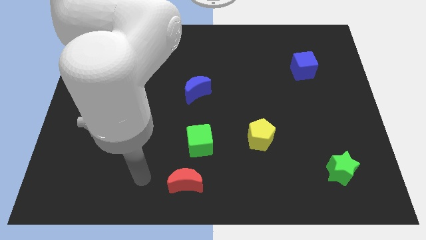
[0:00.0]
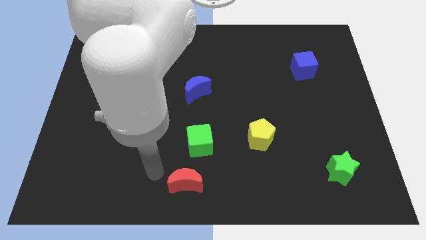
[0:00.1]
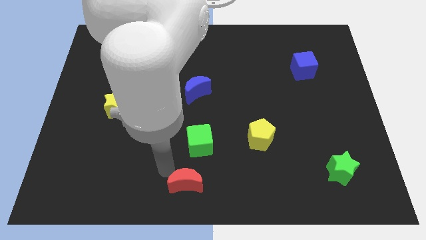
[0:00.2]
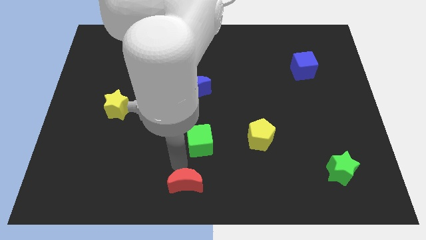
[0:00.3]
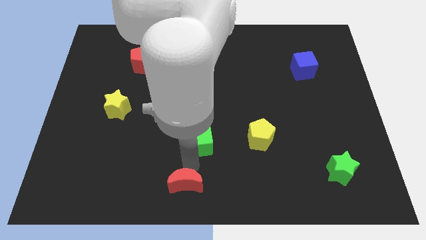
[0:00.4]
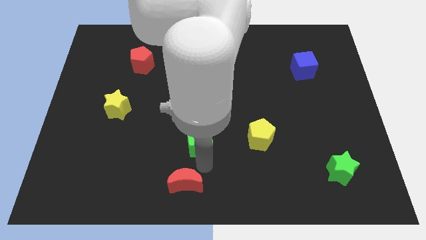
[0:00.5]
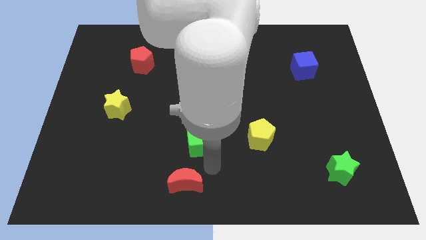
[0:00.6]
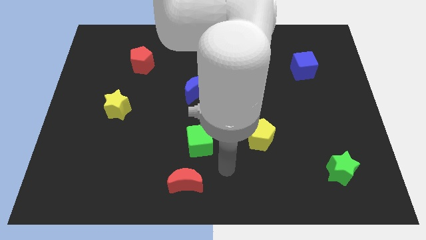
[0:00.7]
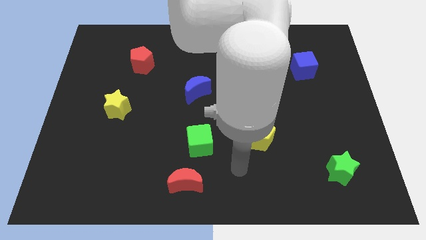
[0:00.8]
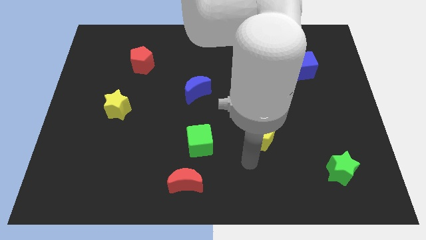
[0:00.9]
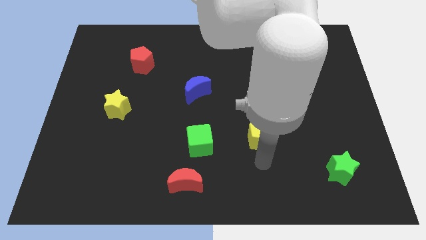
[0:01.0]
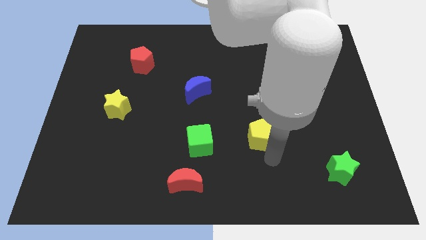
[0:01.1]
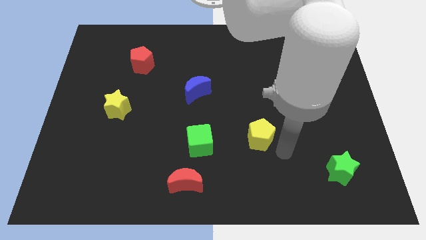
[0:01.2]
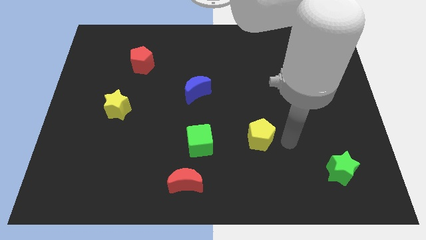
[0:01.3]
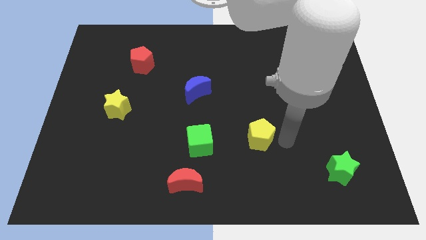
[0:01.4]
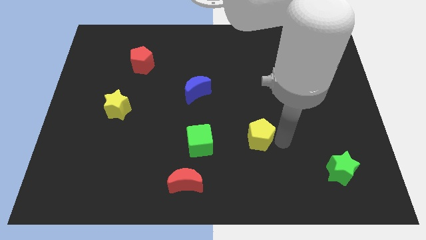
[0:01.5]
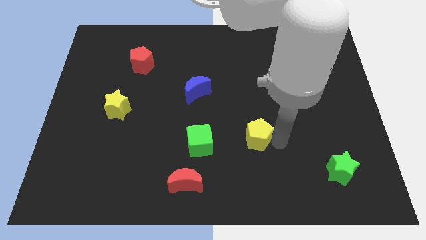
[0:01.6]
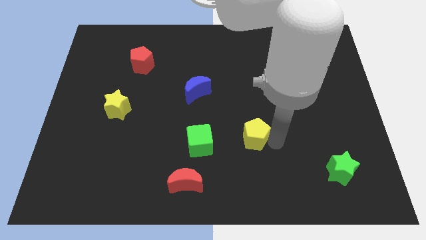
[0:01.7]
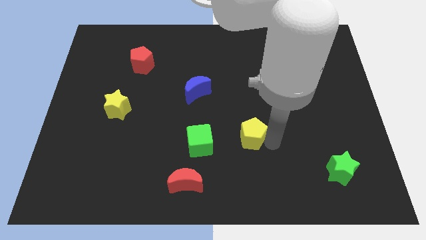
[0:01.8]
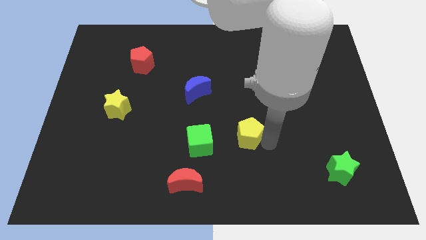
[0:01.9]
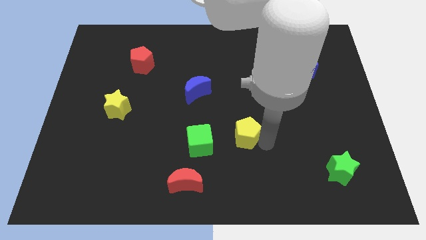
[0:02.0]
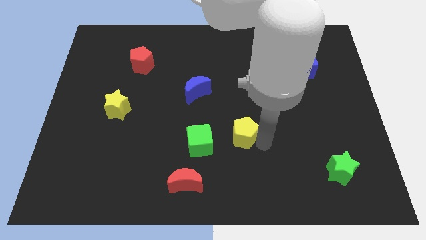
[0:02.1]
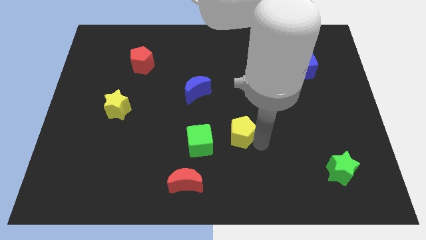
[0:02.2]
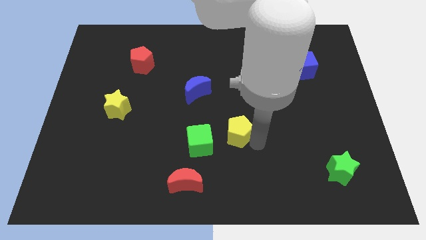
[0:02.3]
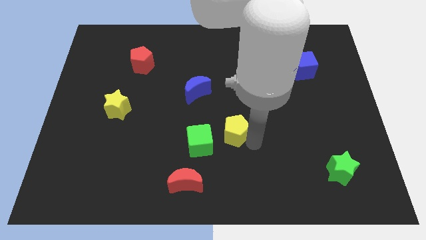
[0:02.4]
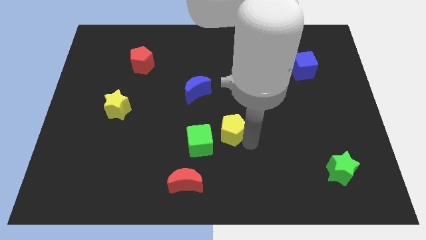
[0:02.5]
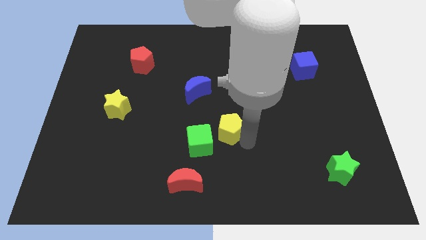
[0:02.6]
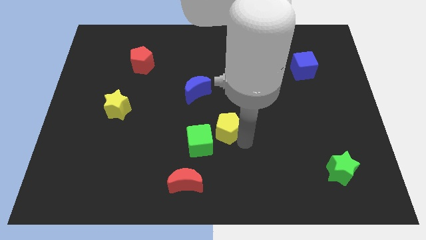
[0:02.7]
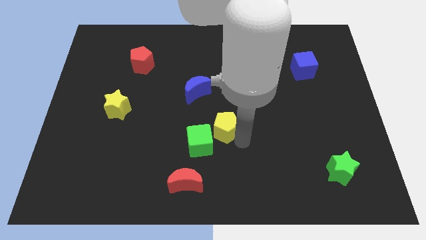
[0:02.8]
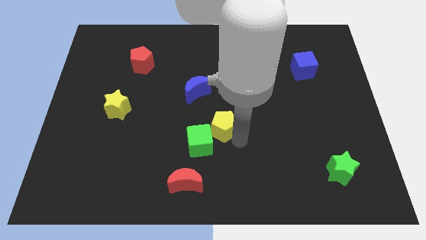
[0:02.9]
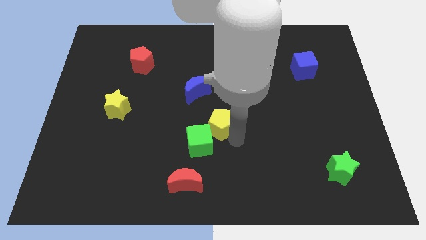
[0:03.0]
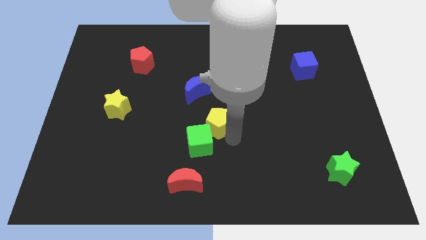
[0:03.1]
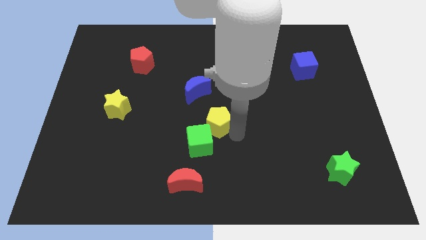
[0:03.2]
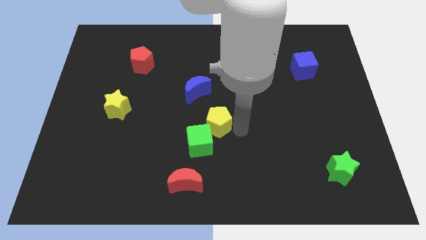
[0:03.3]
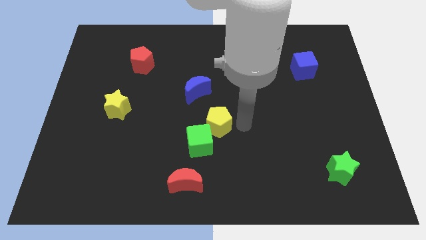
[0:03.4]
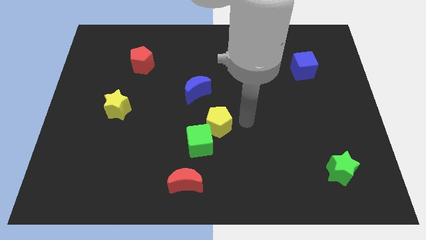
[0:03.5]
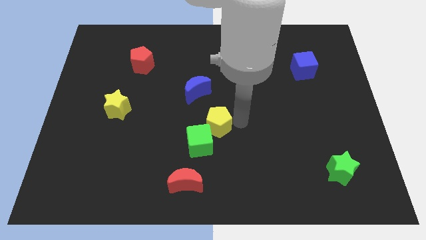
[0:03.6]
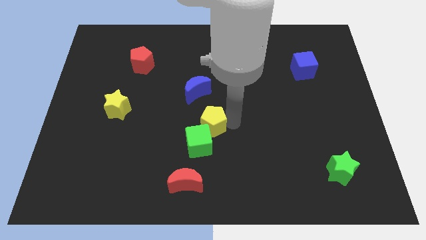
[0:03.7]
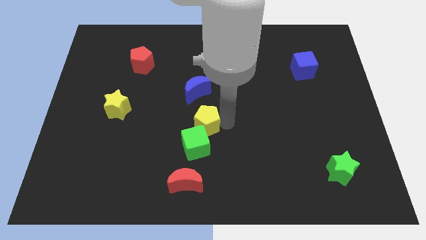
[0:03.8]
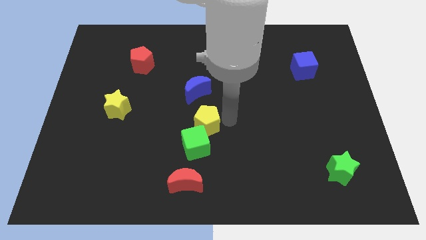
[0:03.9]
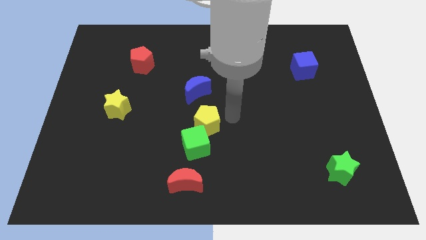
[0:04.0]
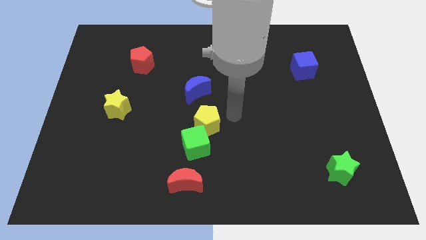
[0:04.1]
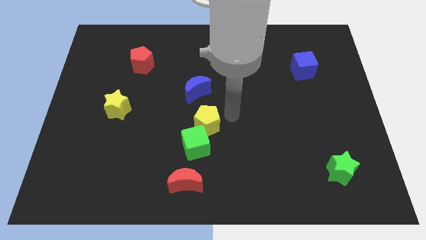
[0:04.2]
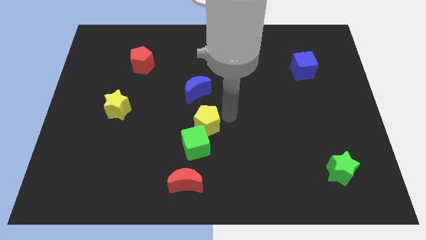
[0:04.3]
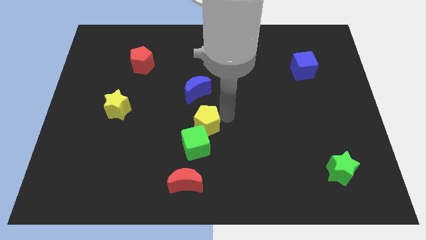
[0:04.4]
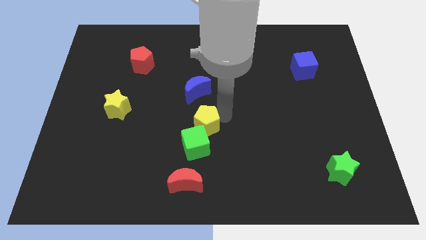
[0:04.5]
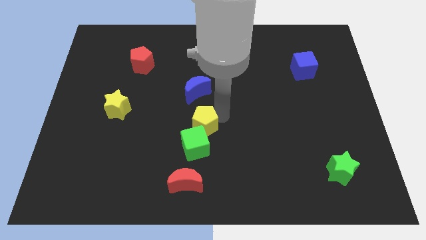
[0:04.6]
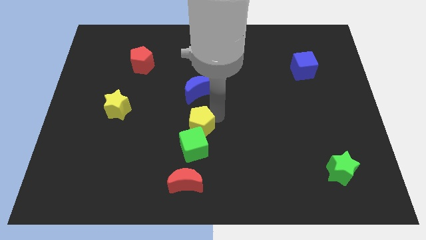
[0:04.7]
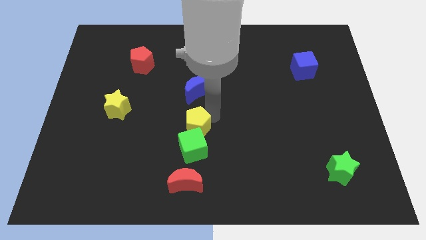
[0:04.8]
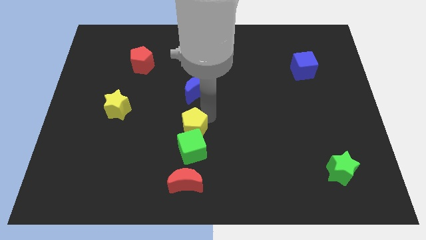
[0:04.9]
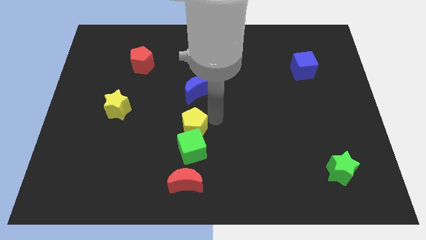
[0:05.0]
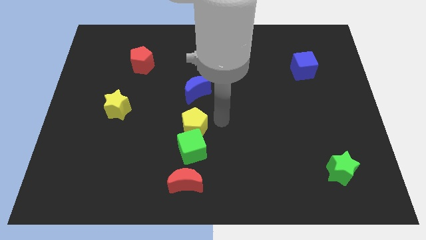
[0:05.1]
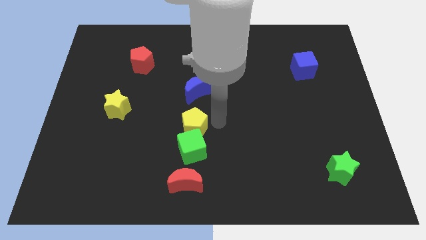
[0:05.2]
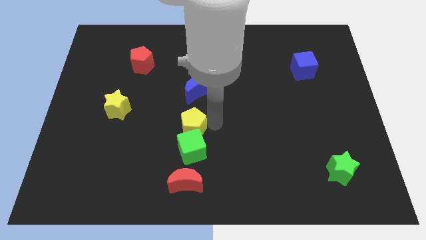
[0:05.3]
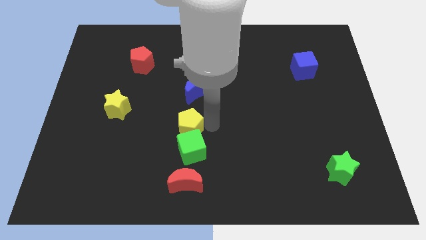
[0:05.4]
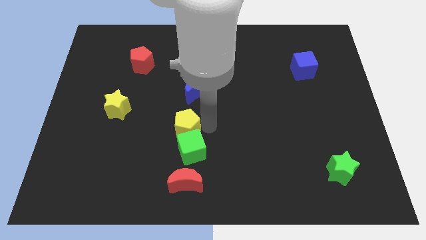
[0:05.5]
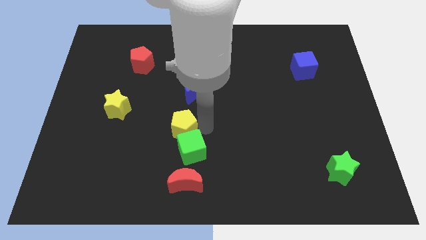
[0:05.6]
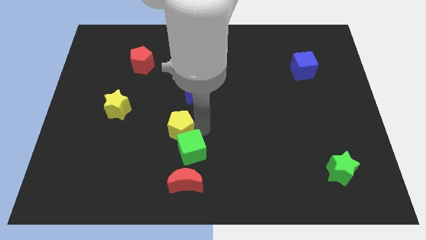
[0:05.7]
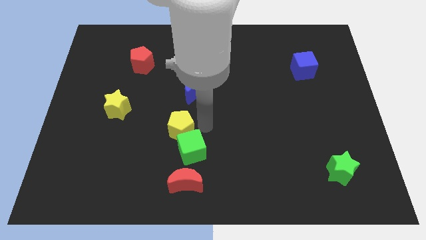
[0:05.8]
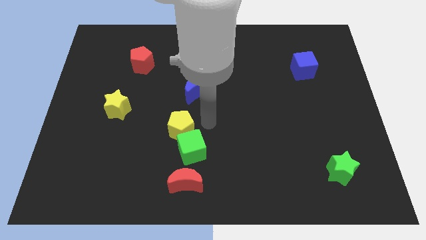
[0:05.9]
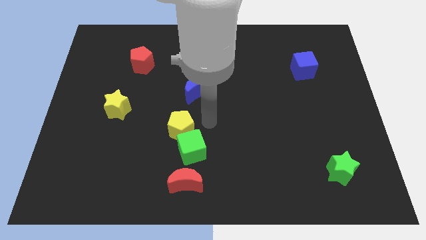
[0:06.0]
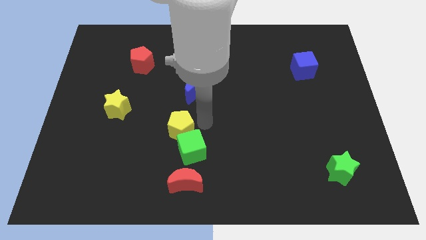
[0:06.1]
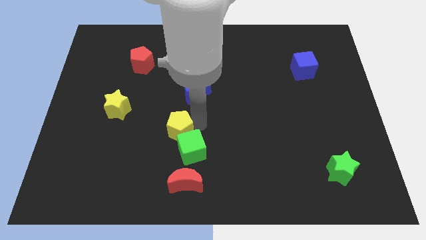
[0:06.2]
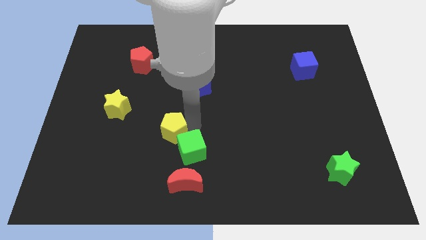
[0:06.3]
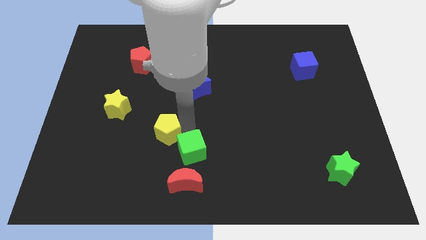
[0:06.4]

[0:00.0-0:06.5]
move the yellow pentagon left

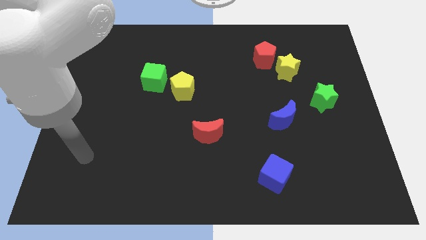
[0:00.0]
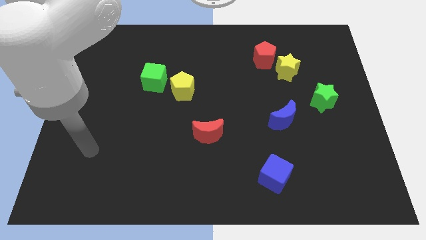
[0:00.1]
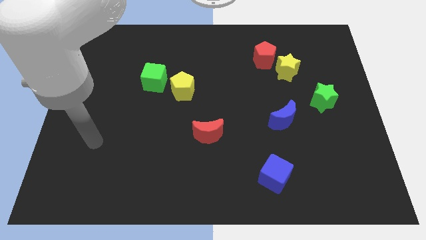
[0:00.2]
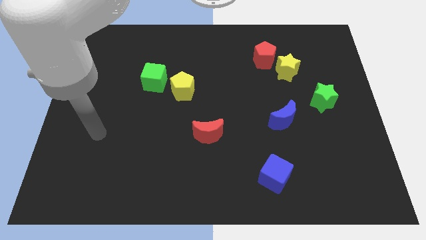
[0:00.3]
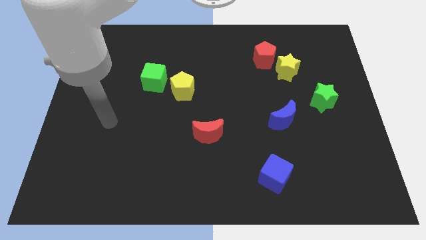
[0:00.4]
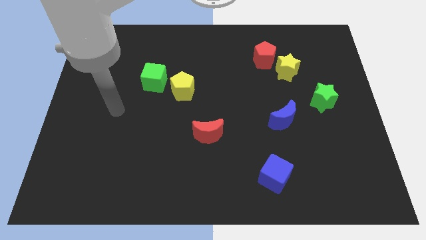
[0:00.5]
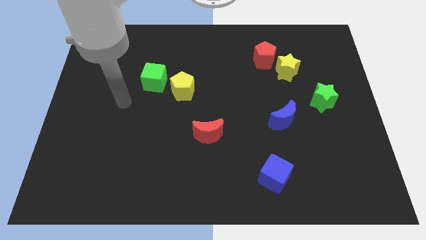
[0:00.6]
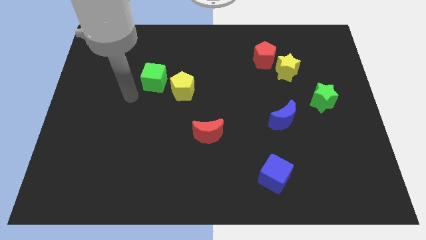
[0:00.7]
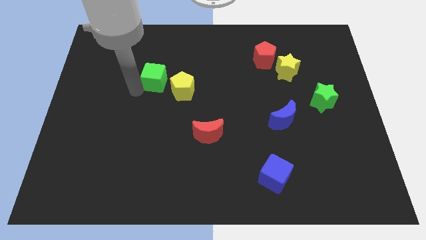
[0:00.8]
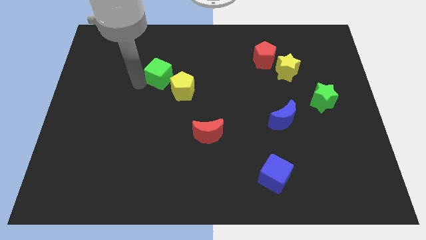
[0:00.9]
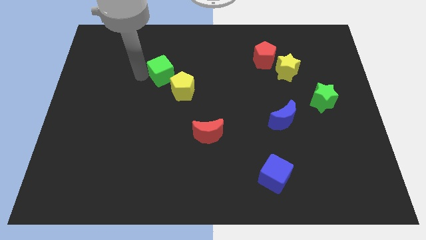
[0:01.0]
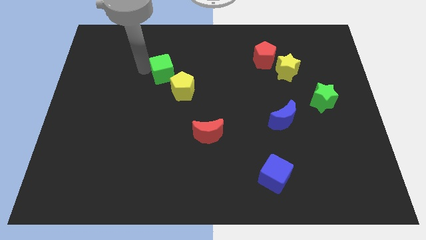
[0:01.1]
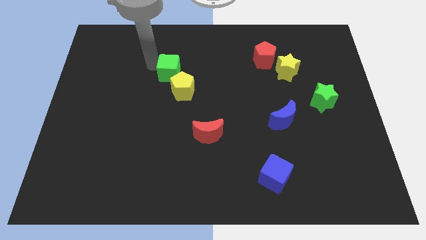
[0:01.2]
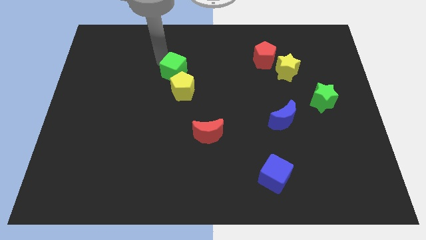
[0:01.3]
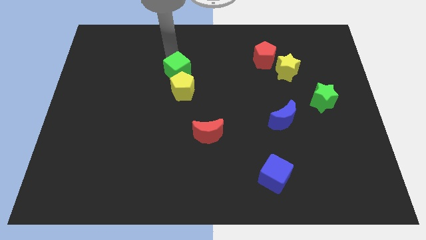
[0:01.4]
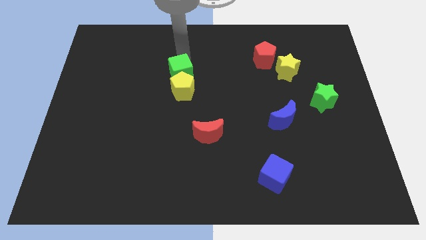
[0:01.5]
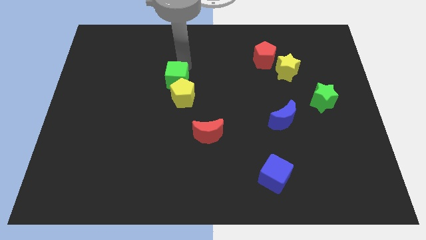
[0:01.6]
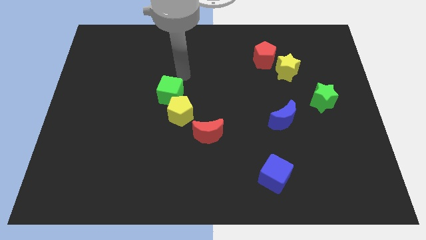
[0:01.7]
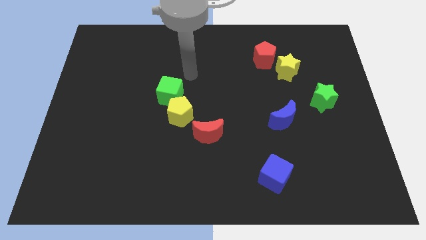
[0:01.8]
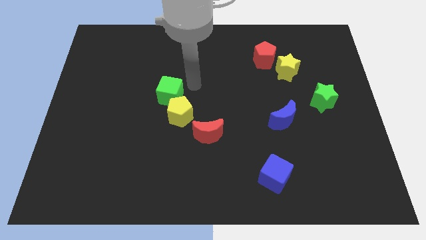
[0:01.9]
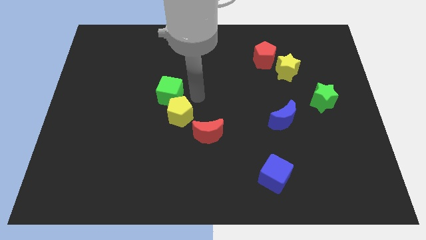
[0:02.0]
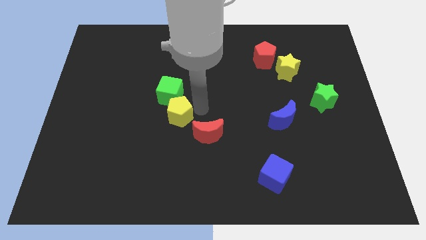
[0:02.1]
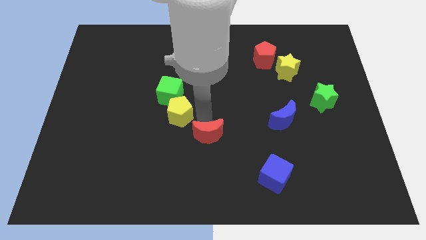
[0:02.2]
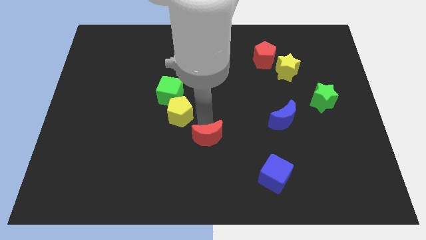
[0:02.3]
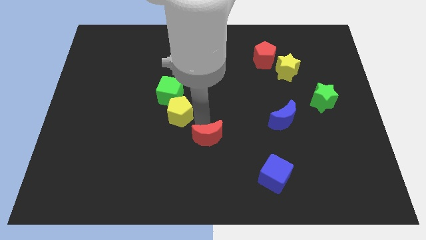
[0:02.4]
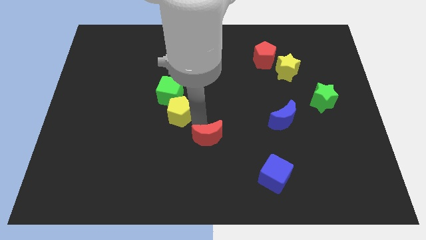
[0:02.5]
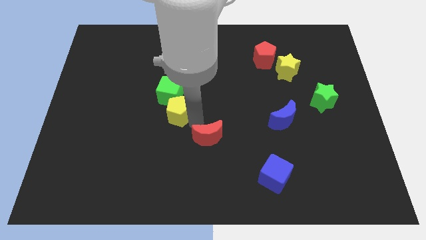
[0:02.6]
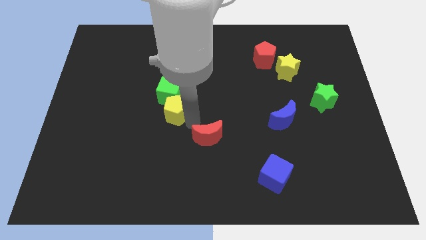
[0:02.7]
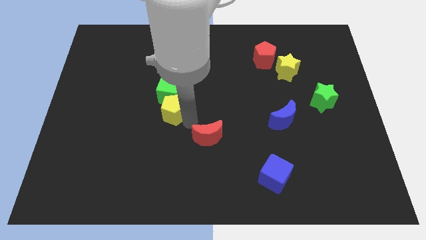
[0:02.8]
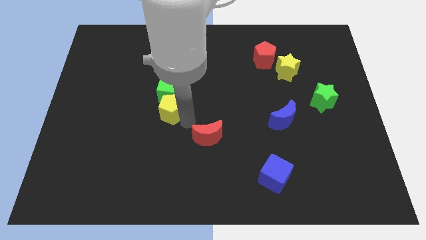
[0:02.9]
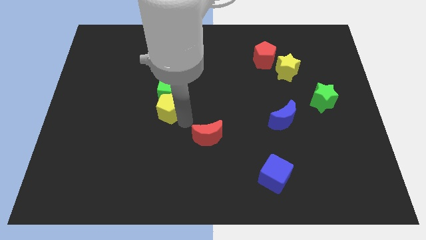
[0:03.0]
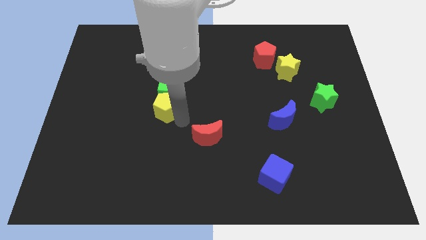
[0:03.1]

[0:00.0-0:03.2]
slightly slide the yellow pentagon downwards and left diagonally
